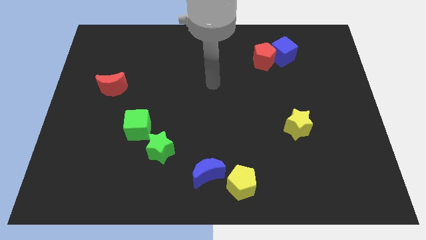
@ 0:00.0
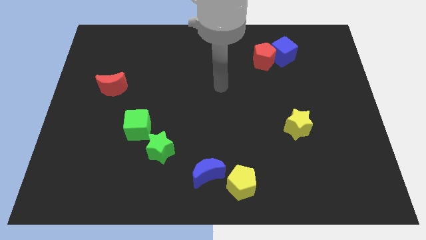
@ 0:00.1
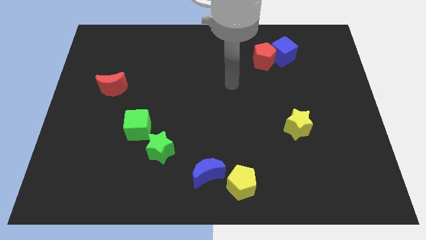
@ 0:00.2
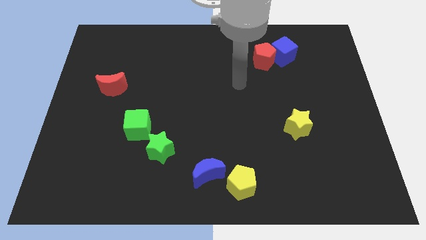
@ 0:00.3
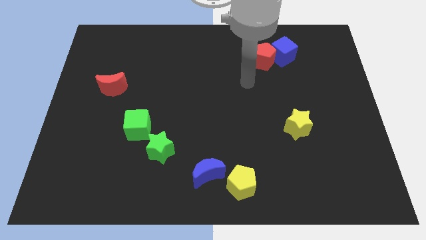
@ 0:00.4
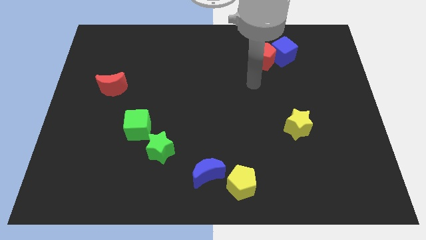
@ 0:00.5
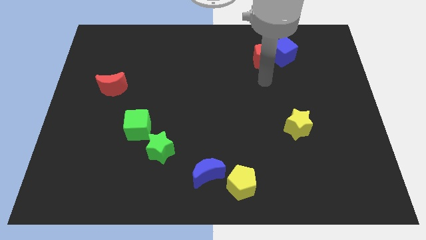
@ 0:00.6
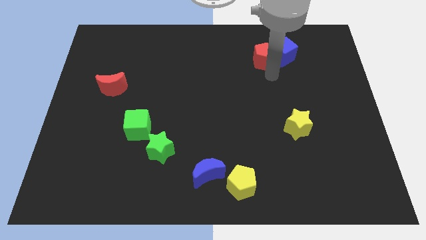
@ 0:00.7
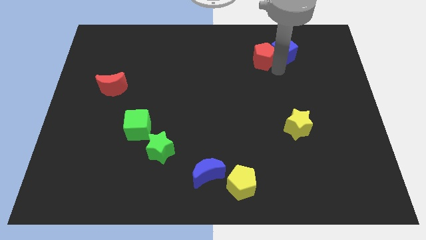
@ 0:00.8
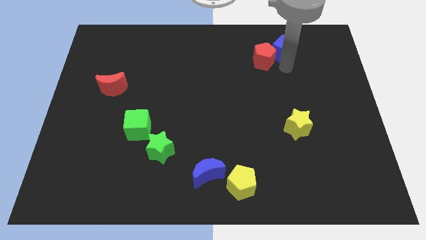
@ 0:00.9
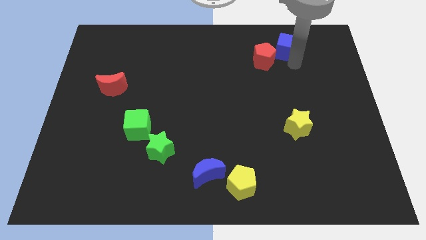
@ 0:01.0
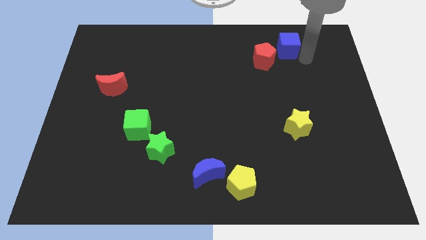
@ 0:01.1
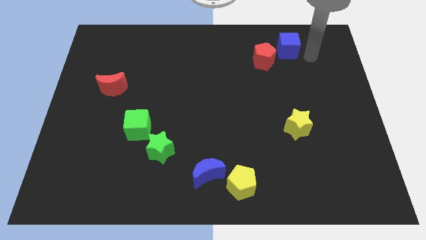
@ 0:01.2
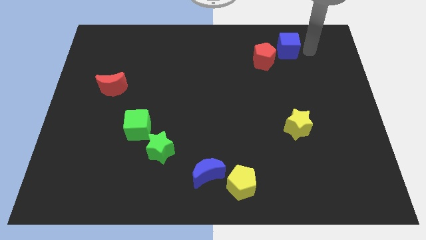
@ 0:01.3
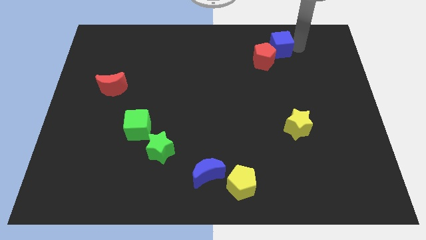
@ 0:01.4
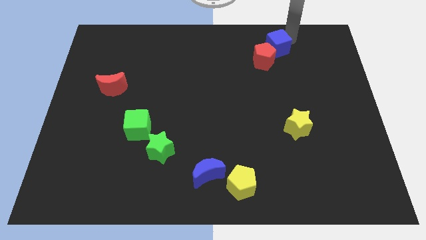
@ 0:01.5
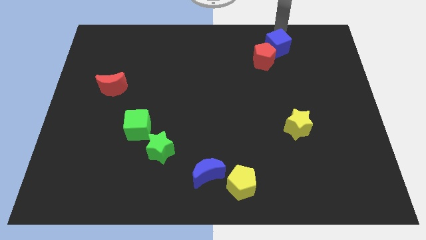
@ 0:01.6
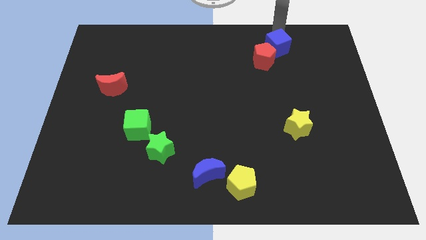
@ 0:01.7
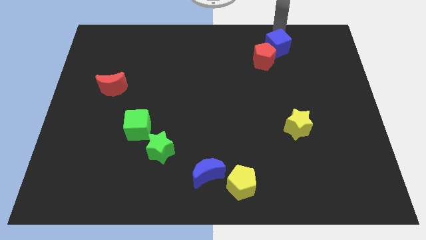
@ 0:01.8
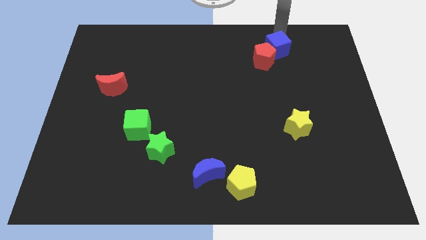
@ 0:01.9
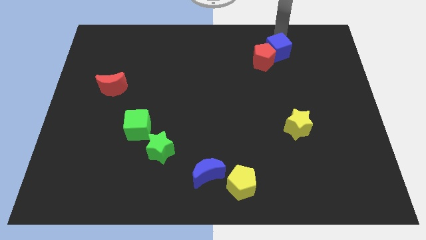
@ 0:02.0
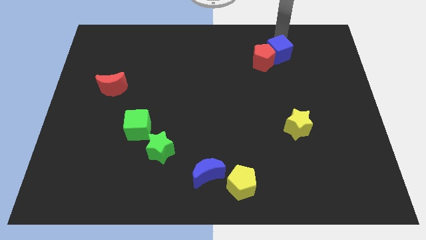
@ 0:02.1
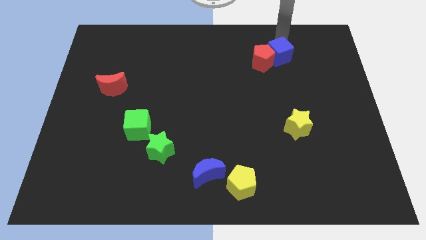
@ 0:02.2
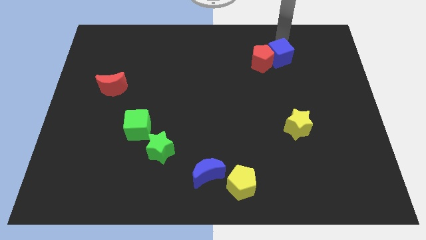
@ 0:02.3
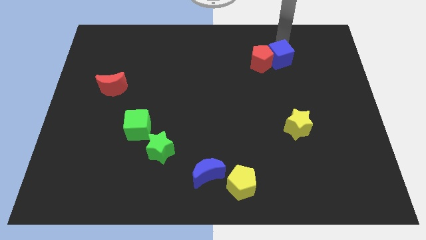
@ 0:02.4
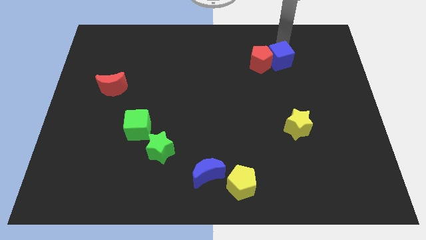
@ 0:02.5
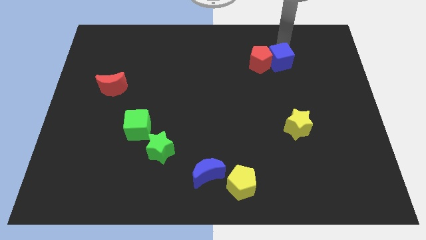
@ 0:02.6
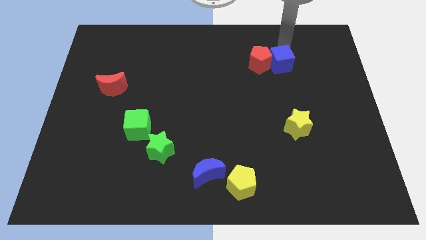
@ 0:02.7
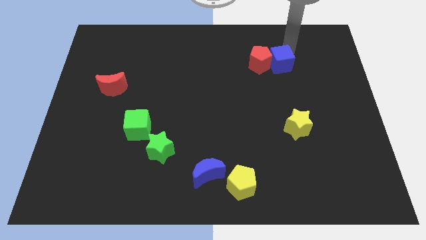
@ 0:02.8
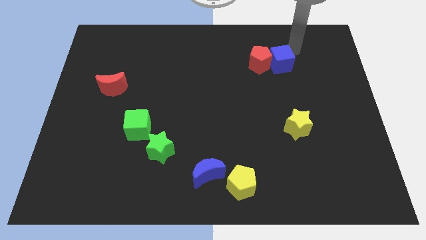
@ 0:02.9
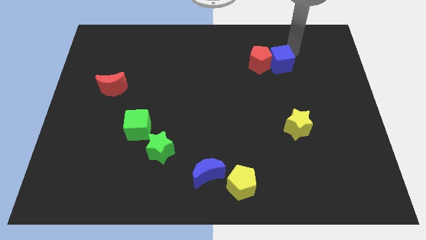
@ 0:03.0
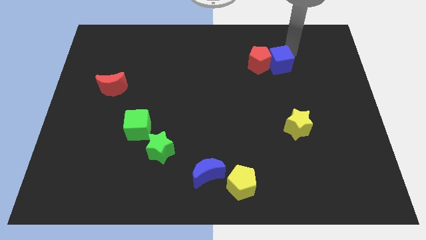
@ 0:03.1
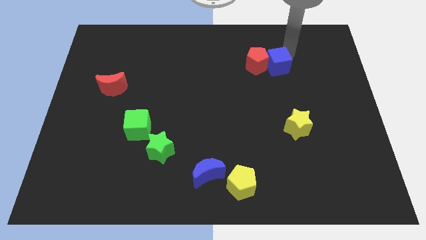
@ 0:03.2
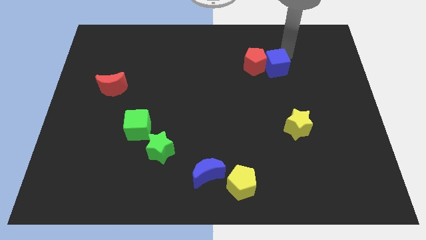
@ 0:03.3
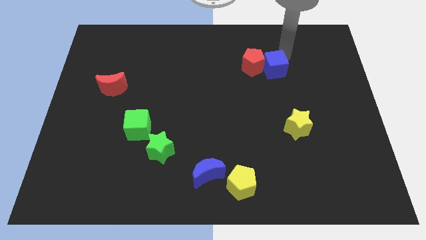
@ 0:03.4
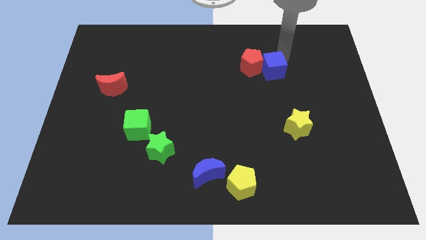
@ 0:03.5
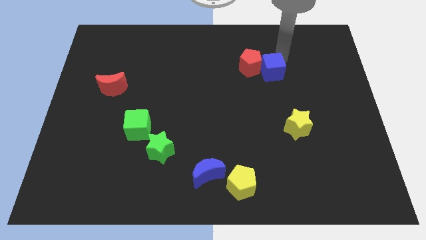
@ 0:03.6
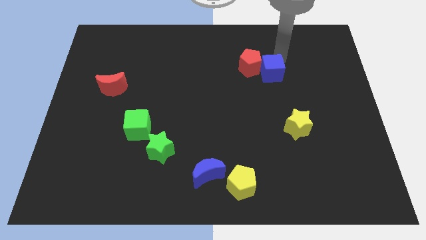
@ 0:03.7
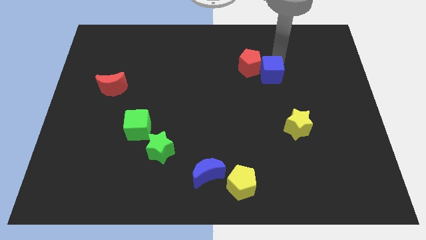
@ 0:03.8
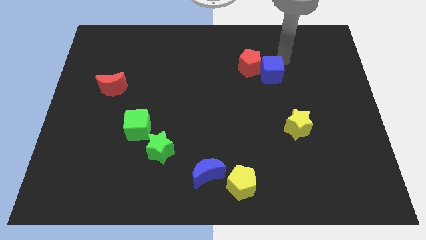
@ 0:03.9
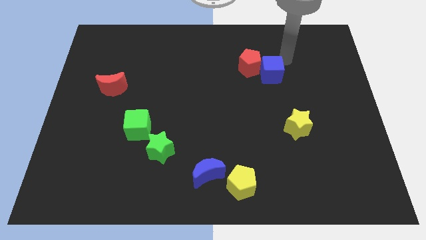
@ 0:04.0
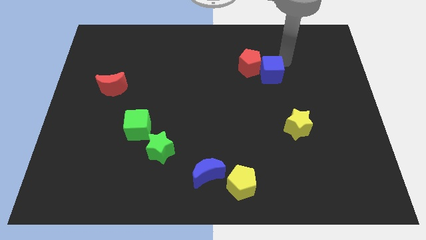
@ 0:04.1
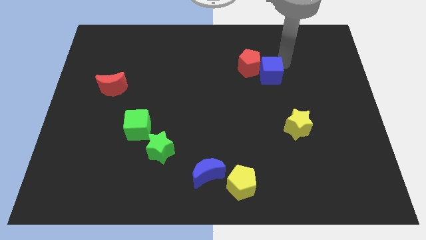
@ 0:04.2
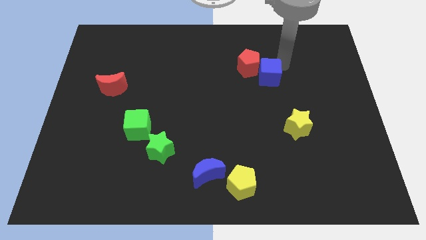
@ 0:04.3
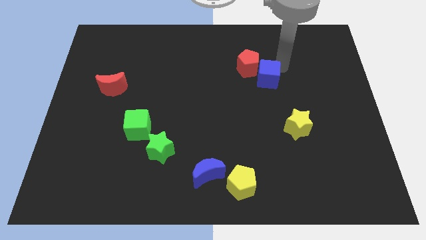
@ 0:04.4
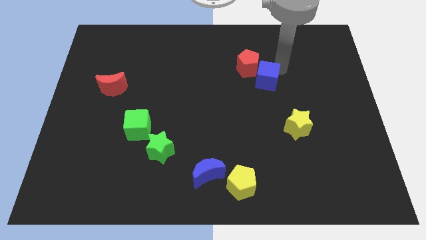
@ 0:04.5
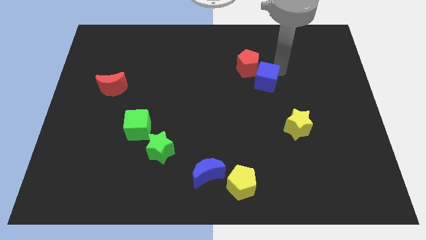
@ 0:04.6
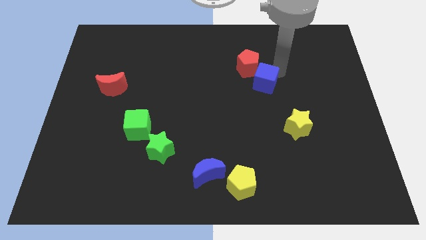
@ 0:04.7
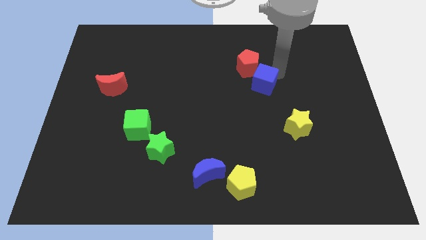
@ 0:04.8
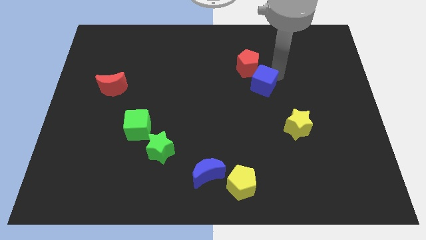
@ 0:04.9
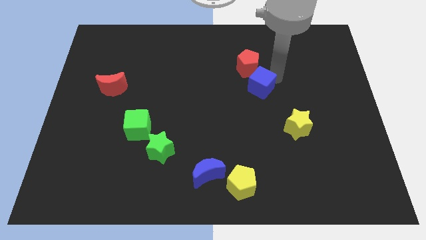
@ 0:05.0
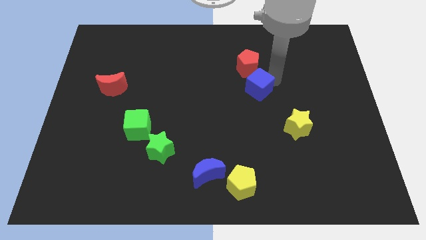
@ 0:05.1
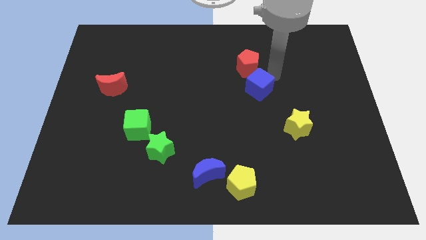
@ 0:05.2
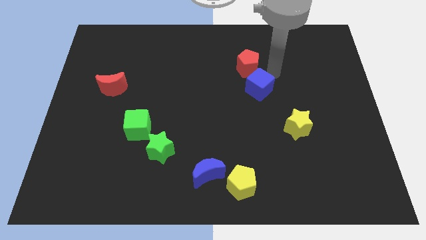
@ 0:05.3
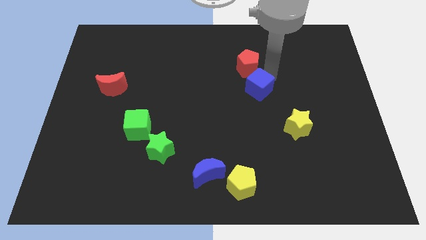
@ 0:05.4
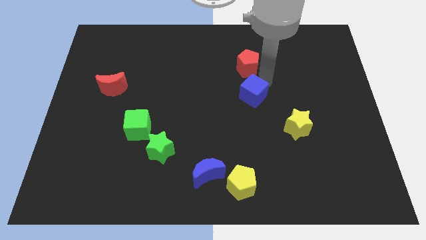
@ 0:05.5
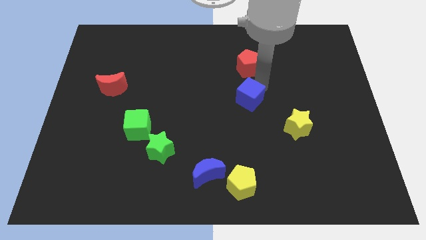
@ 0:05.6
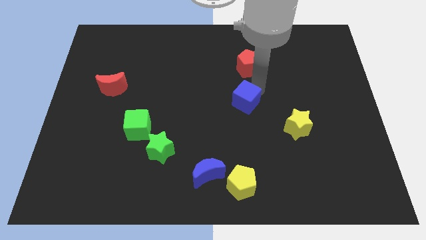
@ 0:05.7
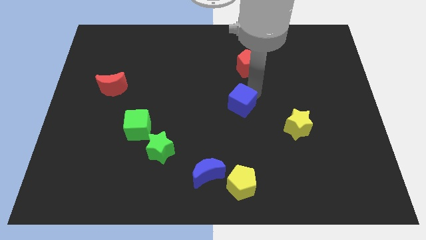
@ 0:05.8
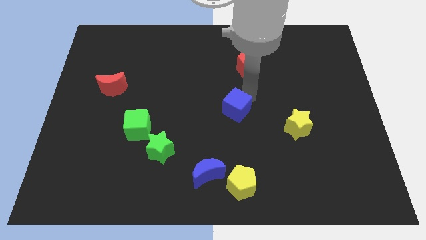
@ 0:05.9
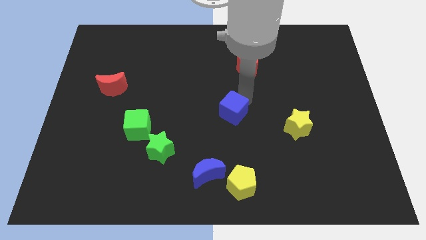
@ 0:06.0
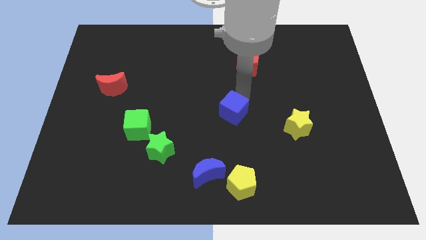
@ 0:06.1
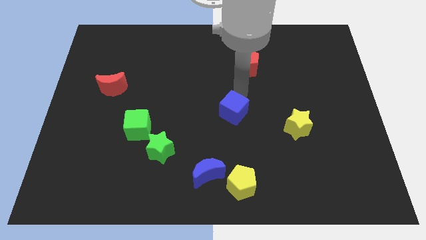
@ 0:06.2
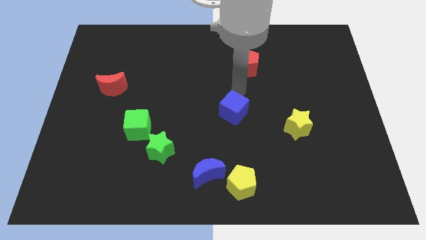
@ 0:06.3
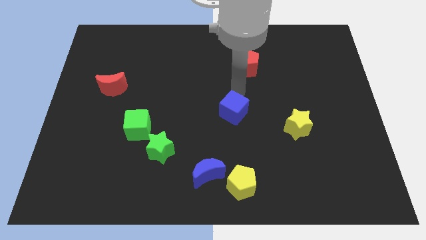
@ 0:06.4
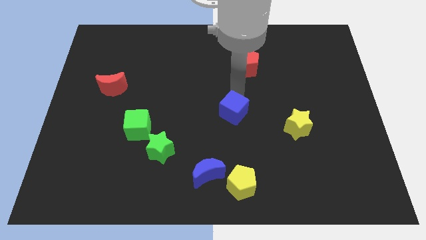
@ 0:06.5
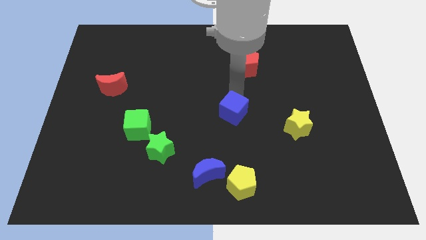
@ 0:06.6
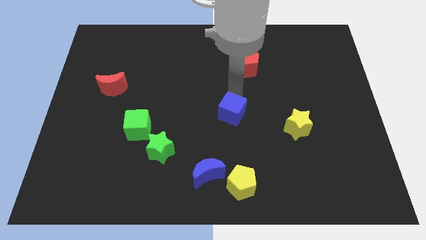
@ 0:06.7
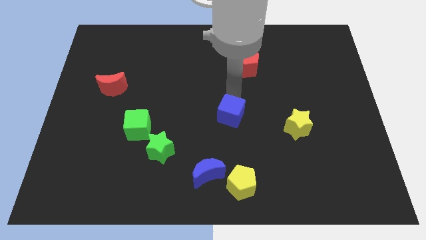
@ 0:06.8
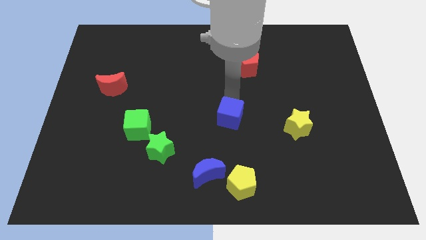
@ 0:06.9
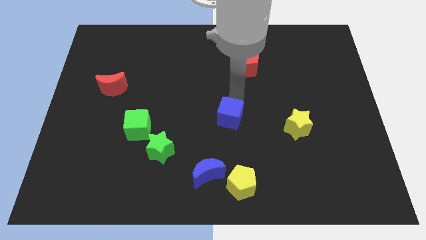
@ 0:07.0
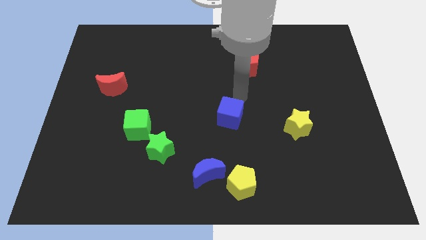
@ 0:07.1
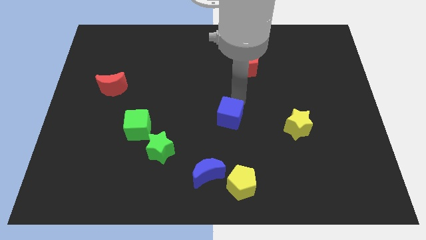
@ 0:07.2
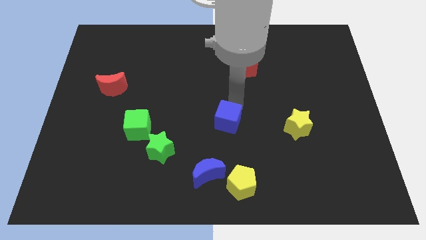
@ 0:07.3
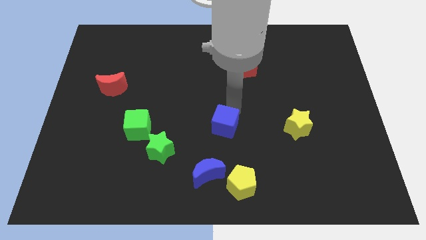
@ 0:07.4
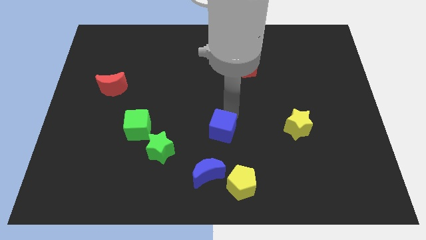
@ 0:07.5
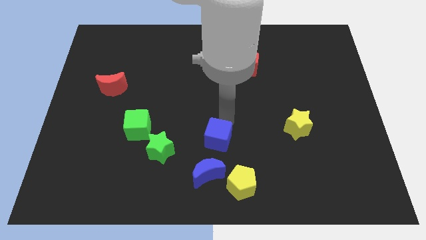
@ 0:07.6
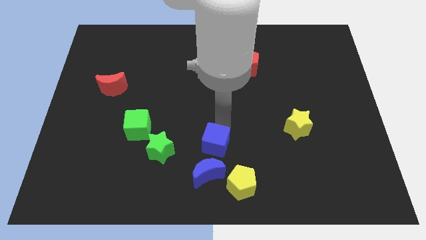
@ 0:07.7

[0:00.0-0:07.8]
push the blue cube diagonally up and to the left of the yellow pentagon
